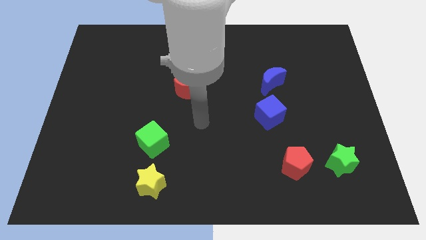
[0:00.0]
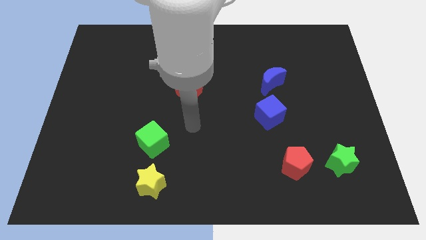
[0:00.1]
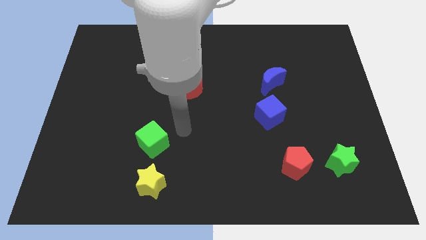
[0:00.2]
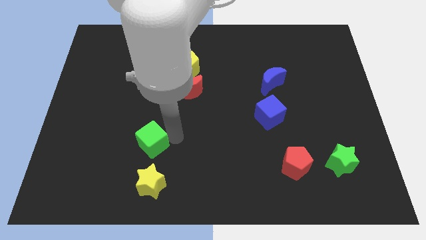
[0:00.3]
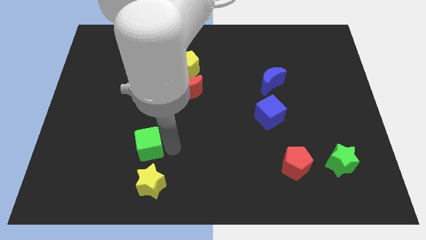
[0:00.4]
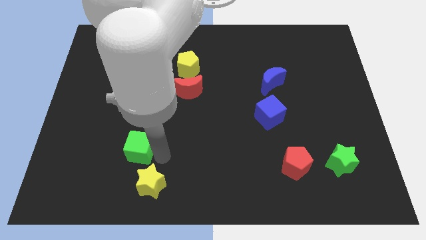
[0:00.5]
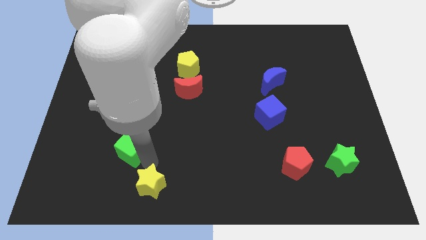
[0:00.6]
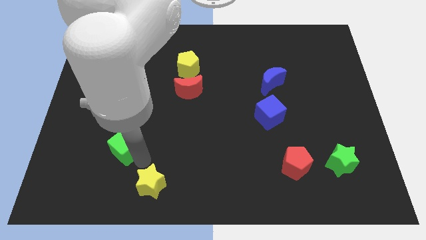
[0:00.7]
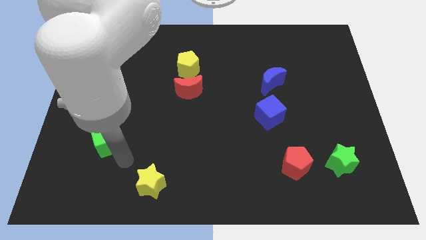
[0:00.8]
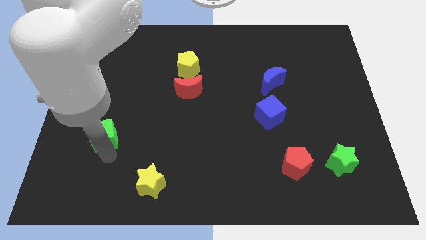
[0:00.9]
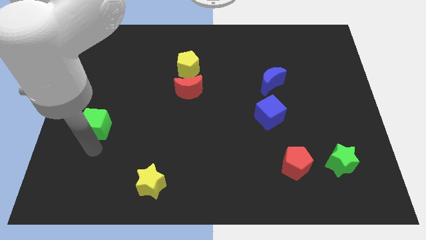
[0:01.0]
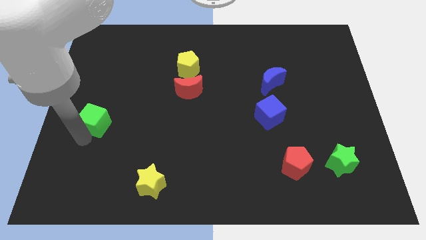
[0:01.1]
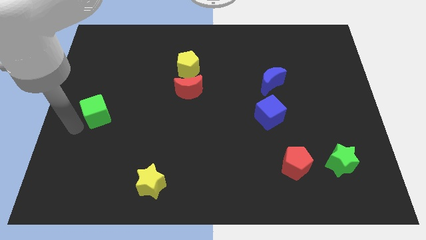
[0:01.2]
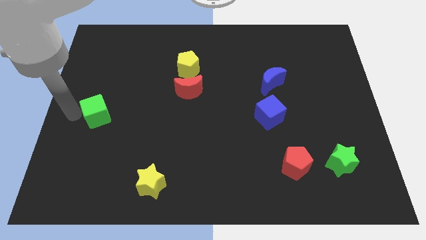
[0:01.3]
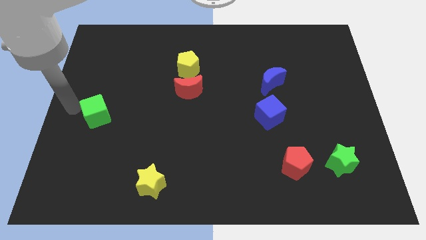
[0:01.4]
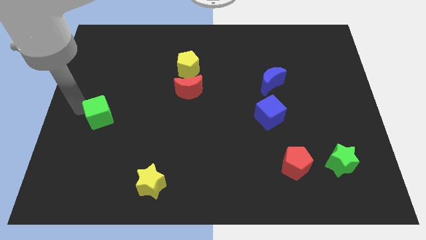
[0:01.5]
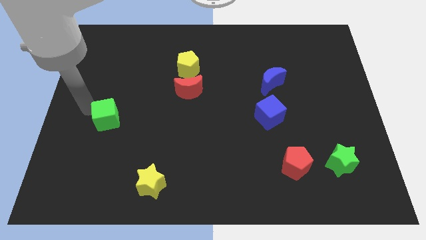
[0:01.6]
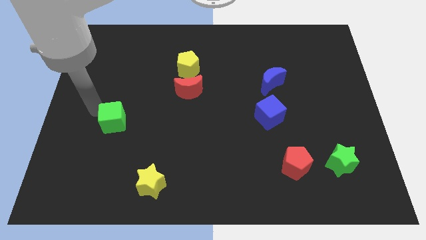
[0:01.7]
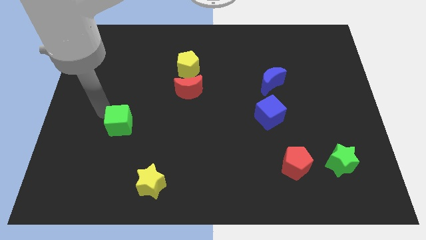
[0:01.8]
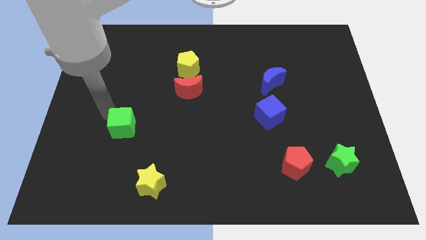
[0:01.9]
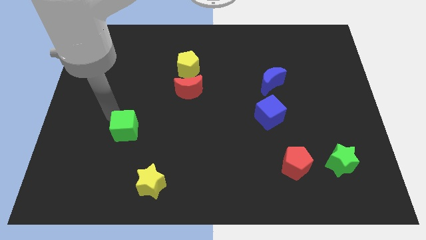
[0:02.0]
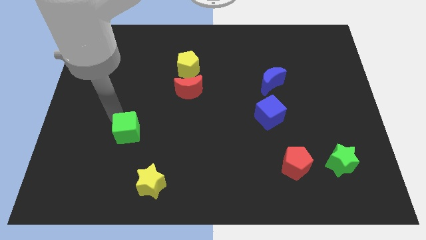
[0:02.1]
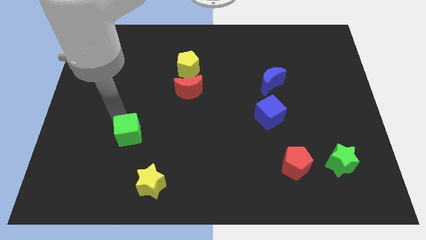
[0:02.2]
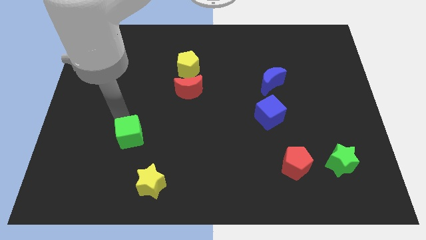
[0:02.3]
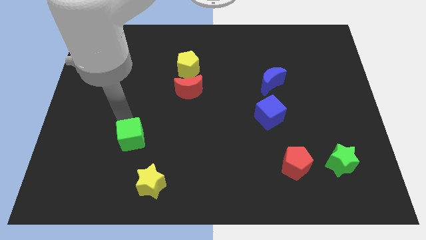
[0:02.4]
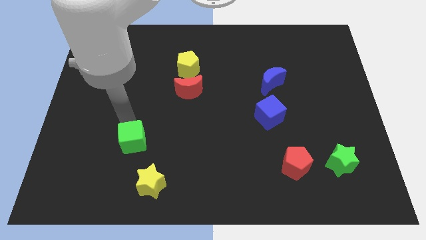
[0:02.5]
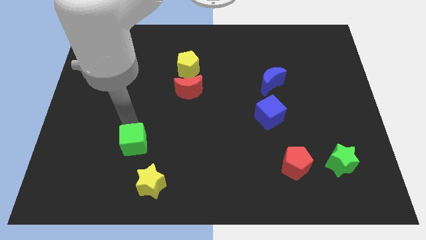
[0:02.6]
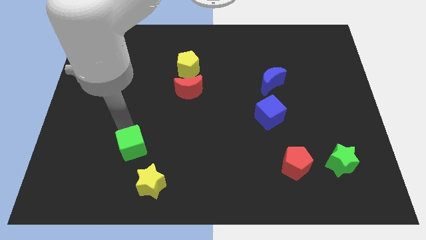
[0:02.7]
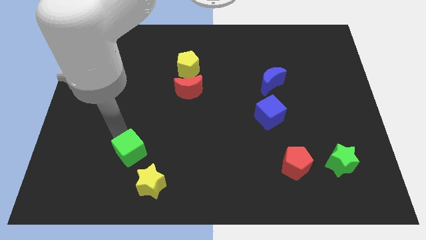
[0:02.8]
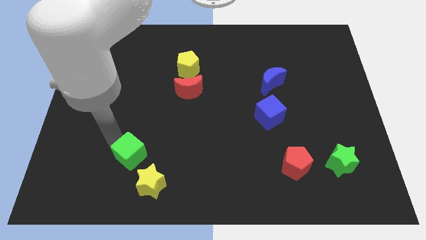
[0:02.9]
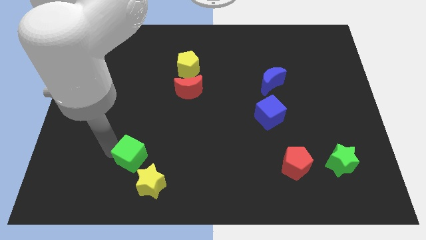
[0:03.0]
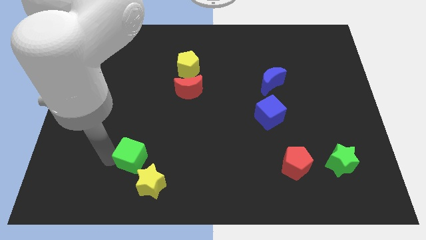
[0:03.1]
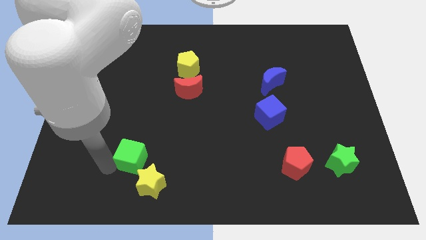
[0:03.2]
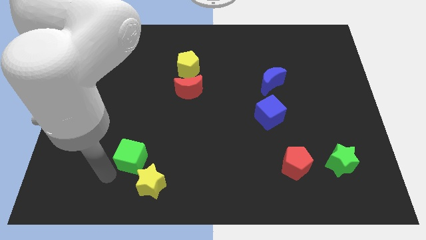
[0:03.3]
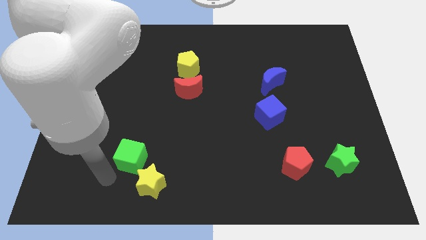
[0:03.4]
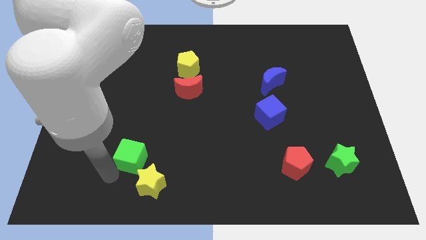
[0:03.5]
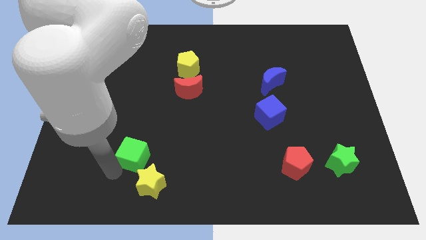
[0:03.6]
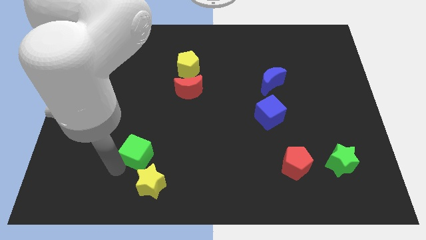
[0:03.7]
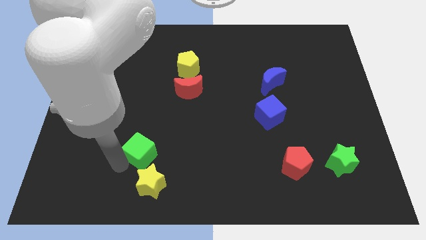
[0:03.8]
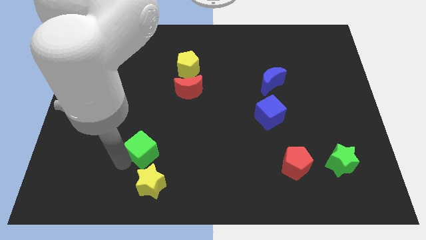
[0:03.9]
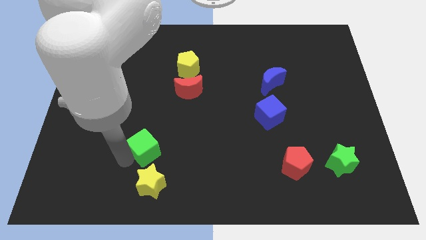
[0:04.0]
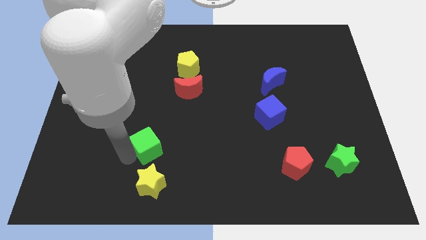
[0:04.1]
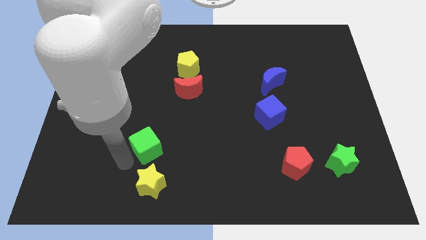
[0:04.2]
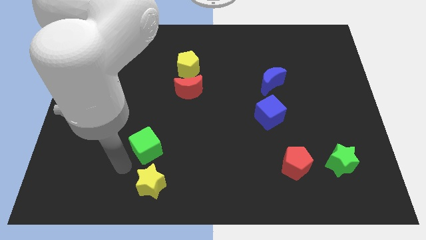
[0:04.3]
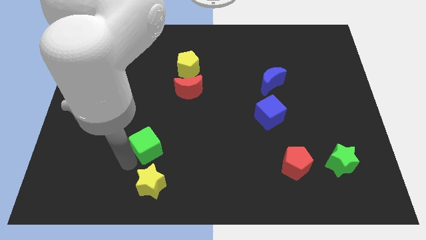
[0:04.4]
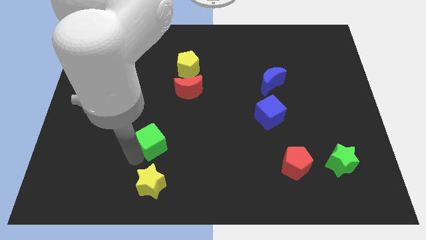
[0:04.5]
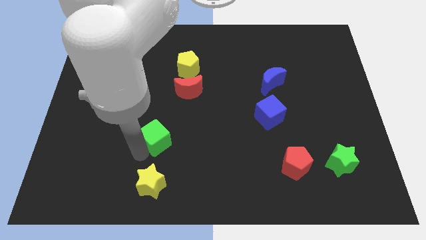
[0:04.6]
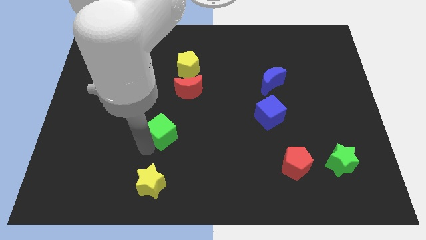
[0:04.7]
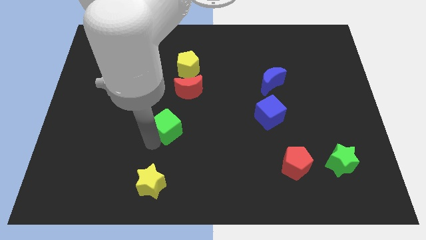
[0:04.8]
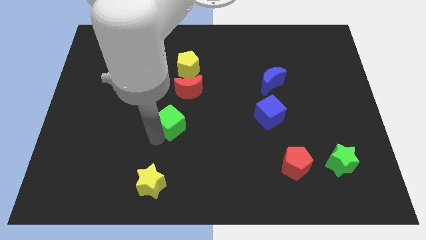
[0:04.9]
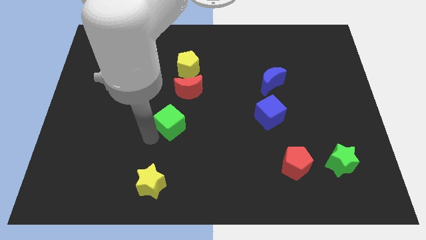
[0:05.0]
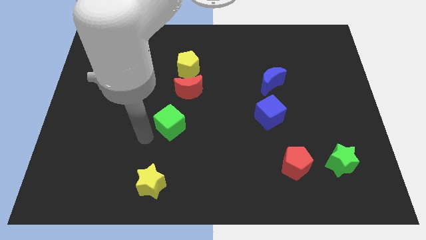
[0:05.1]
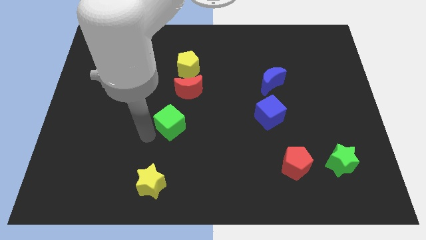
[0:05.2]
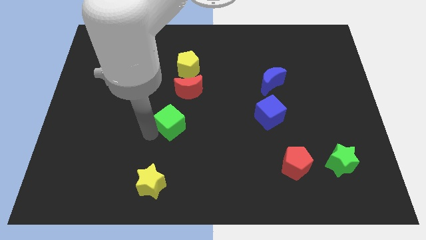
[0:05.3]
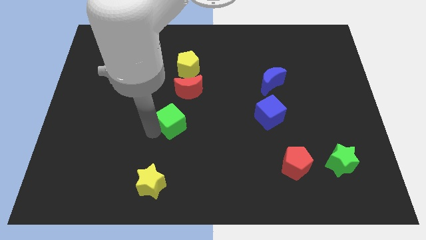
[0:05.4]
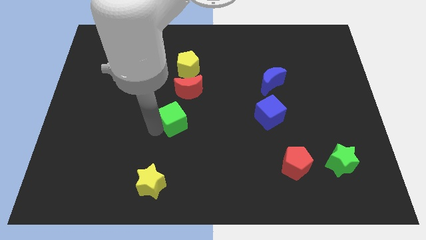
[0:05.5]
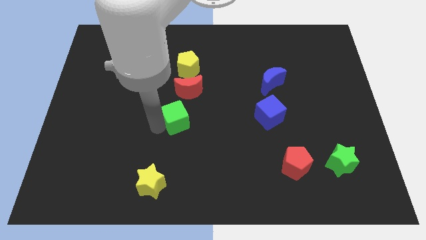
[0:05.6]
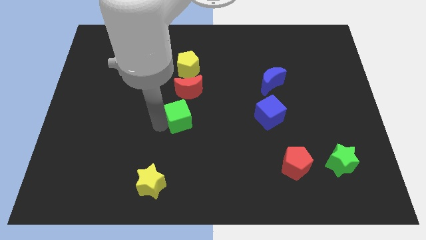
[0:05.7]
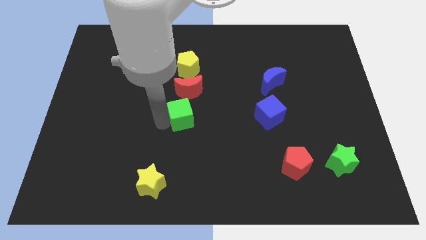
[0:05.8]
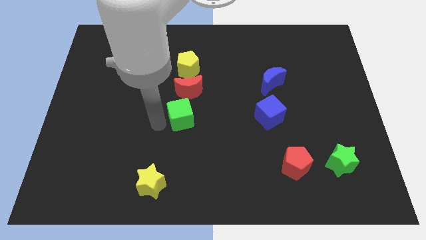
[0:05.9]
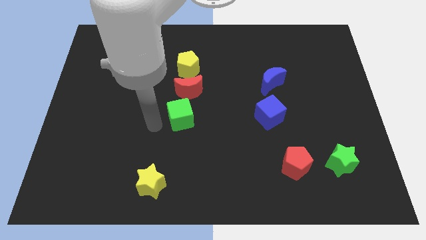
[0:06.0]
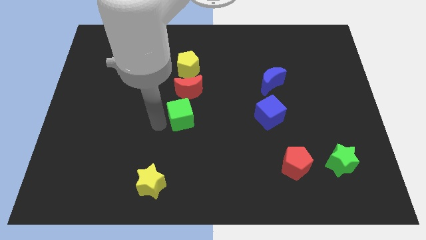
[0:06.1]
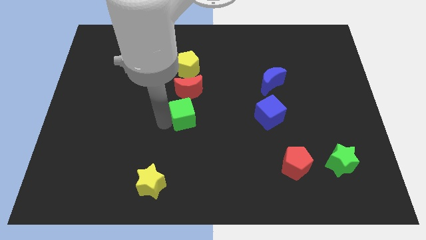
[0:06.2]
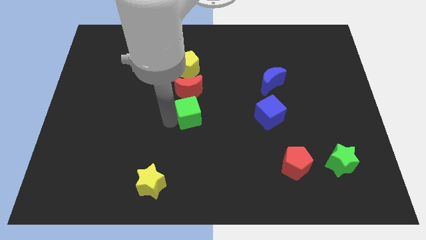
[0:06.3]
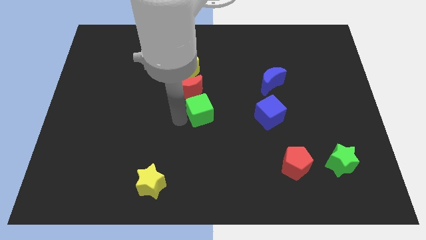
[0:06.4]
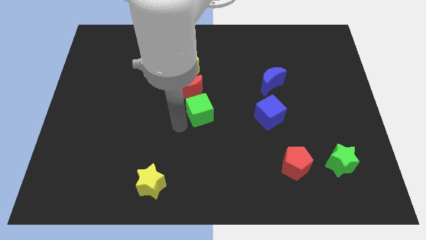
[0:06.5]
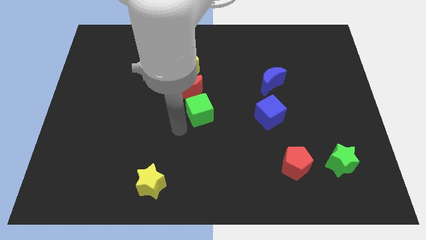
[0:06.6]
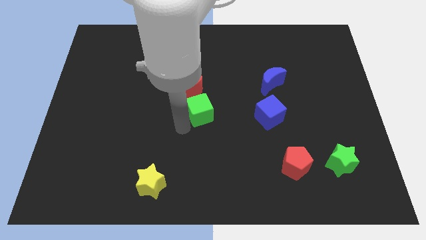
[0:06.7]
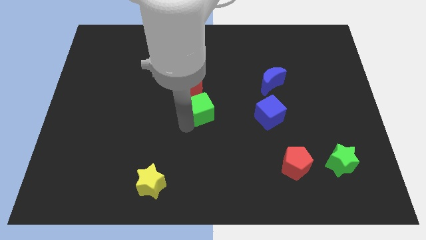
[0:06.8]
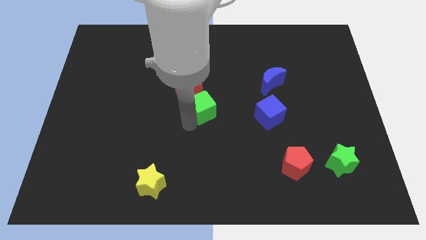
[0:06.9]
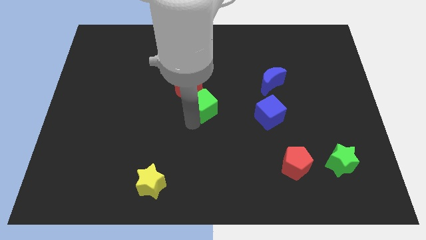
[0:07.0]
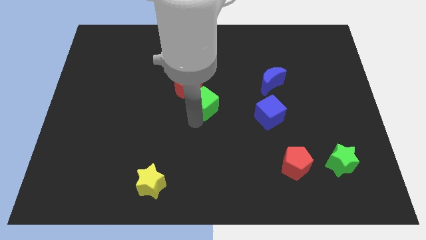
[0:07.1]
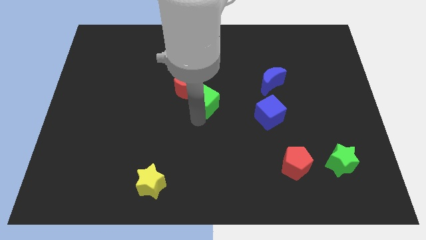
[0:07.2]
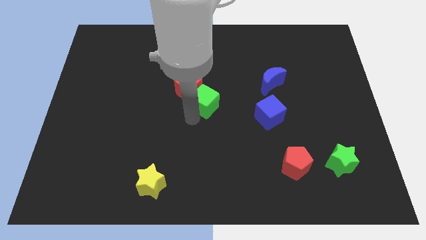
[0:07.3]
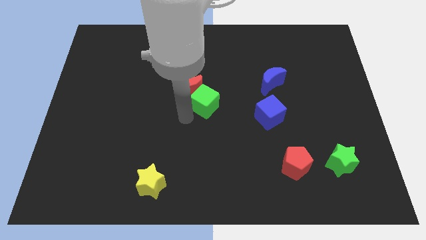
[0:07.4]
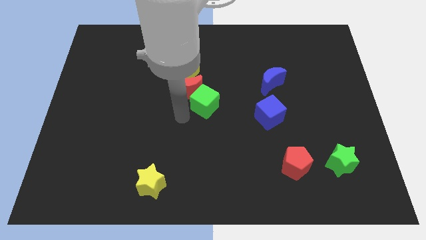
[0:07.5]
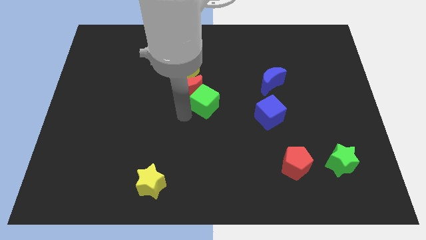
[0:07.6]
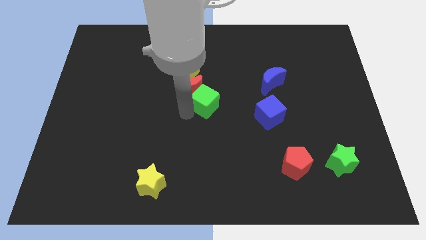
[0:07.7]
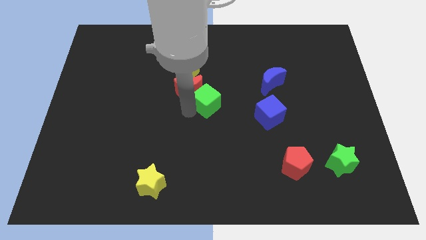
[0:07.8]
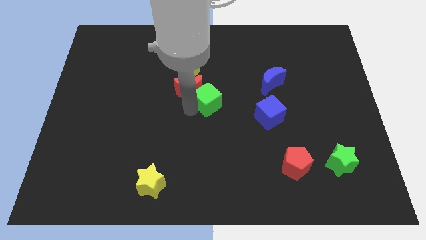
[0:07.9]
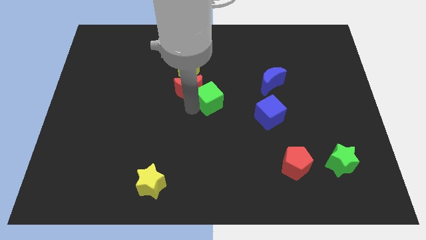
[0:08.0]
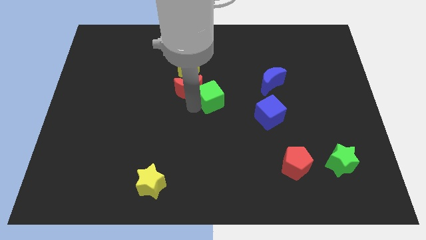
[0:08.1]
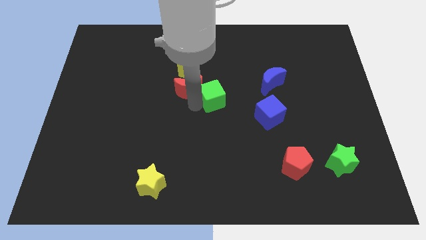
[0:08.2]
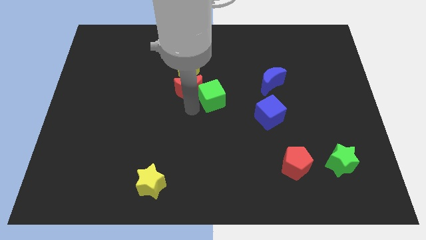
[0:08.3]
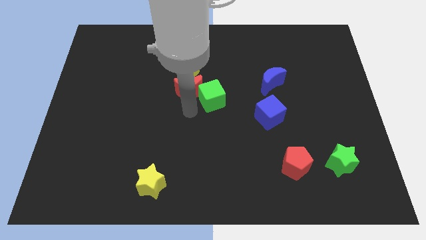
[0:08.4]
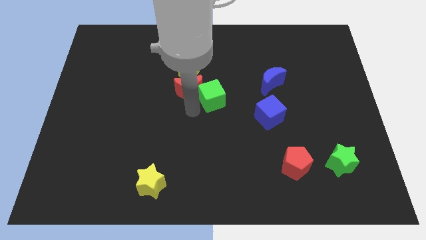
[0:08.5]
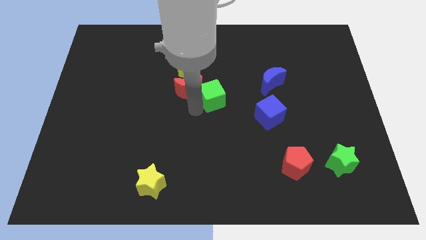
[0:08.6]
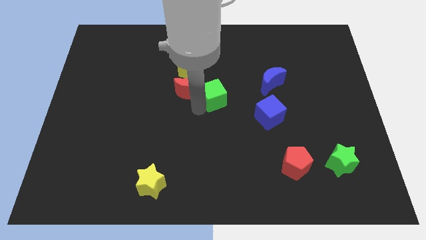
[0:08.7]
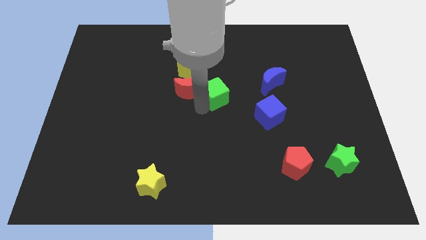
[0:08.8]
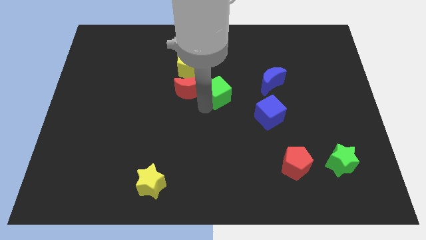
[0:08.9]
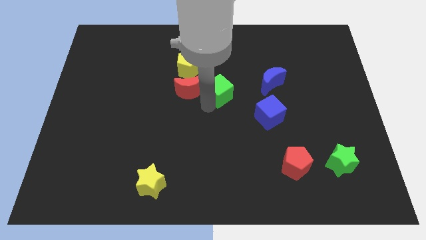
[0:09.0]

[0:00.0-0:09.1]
push the green cube diagonally upwards and to the right
